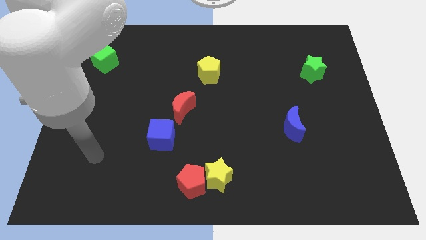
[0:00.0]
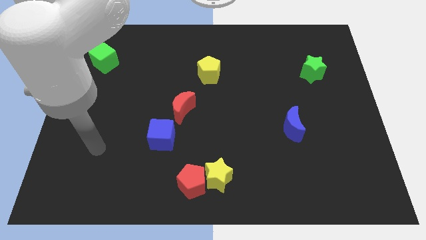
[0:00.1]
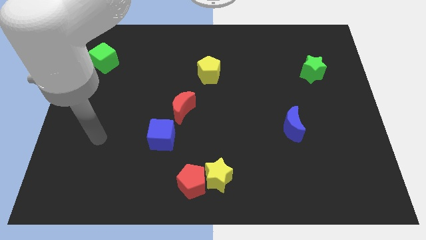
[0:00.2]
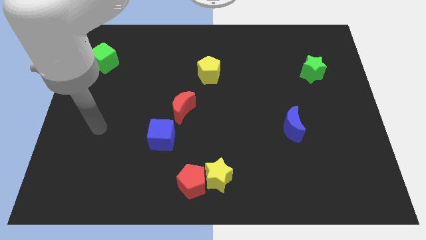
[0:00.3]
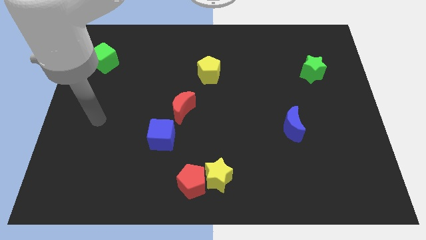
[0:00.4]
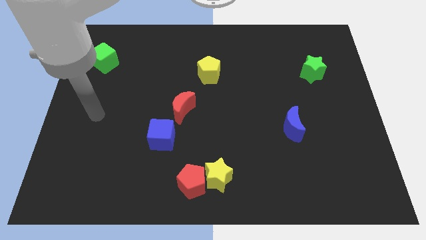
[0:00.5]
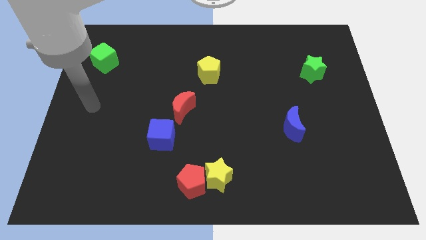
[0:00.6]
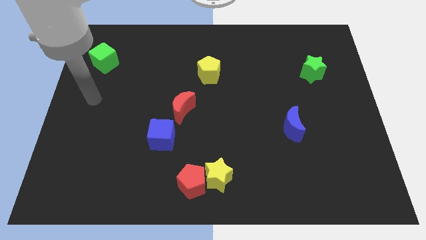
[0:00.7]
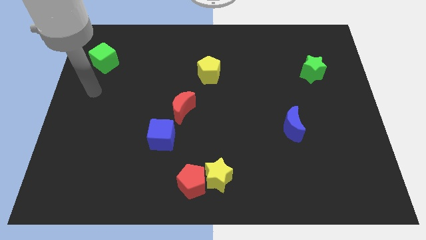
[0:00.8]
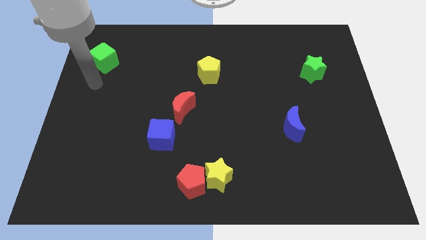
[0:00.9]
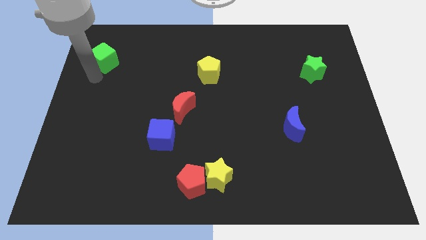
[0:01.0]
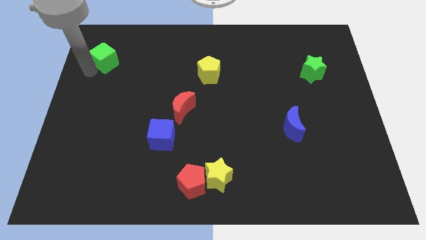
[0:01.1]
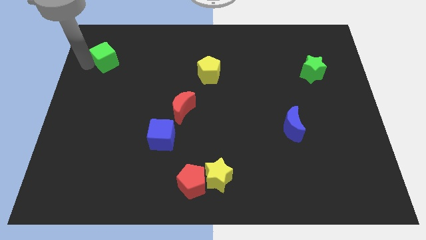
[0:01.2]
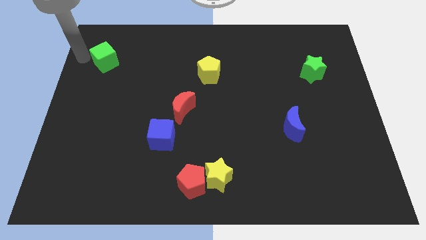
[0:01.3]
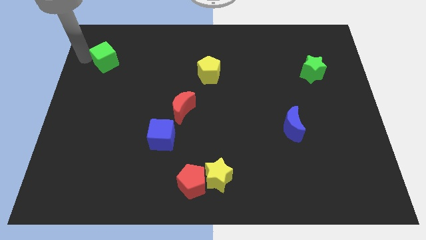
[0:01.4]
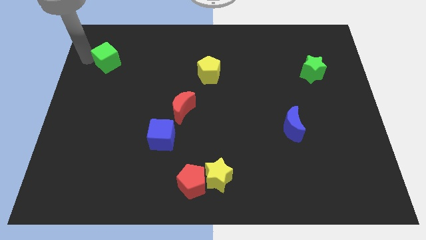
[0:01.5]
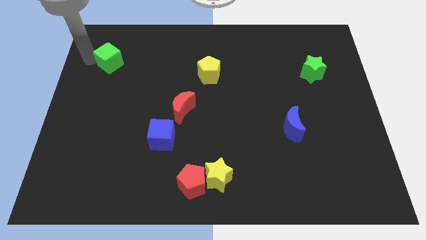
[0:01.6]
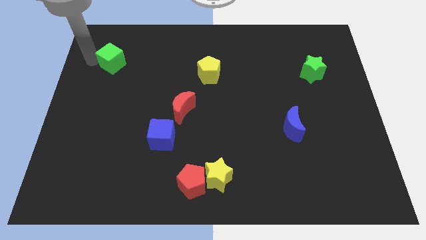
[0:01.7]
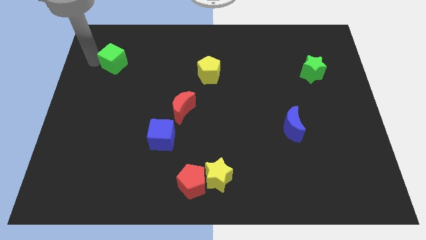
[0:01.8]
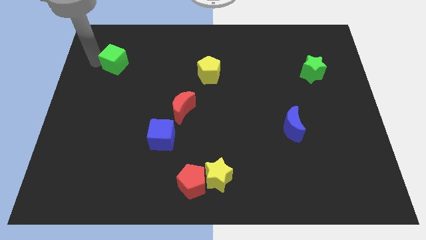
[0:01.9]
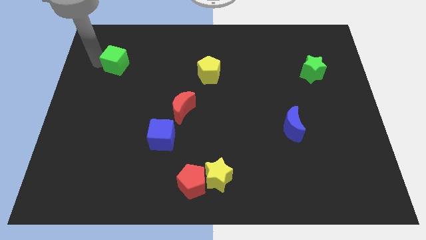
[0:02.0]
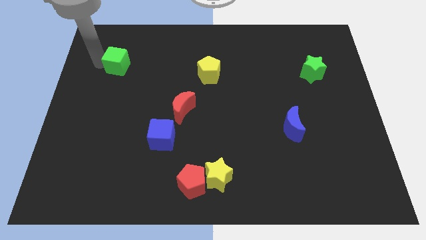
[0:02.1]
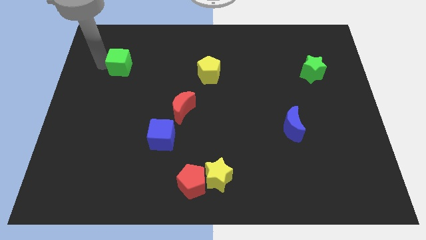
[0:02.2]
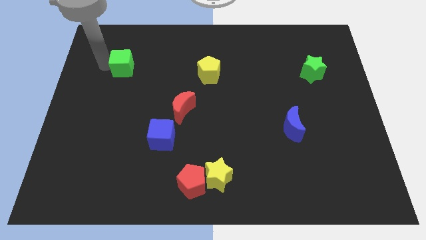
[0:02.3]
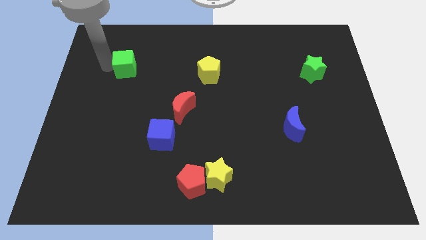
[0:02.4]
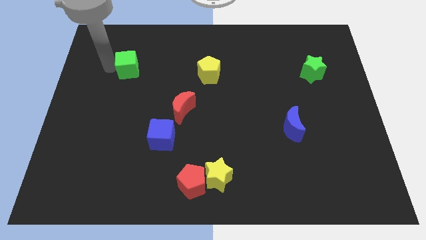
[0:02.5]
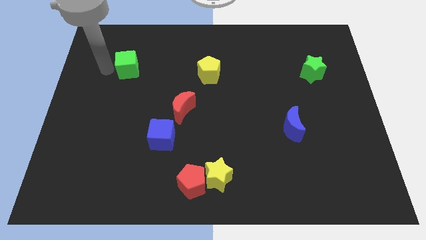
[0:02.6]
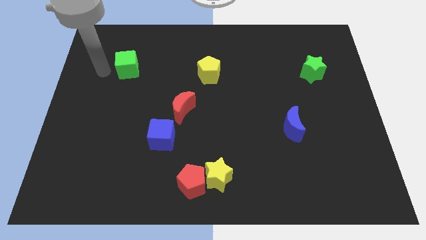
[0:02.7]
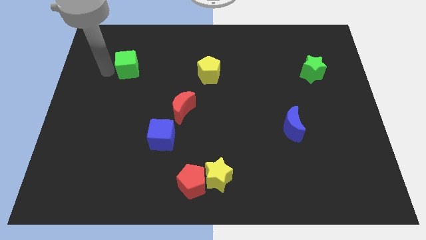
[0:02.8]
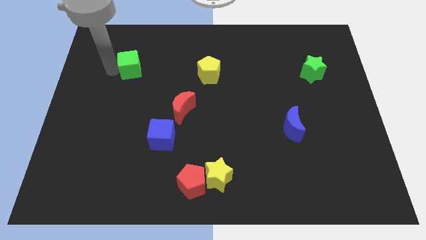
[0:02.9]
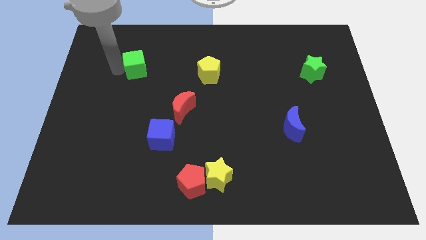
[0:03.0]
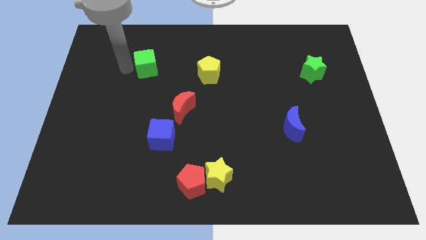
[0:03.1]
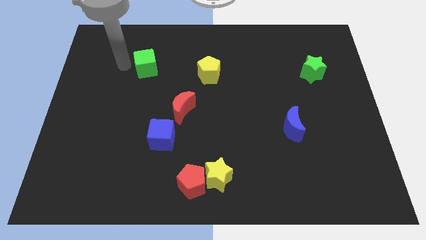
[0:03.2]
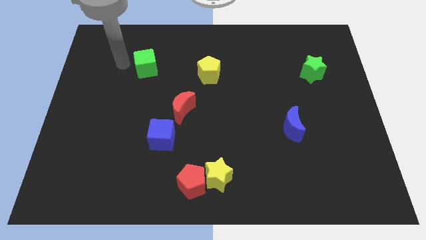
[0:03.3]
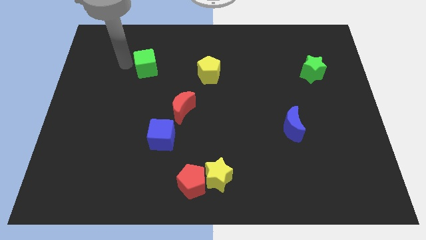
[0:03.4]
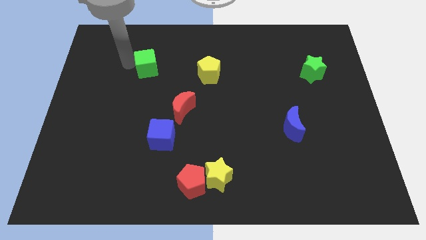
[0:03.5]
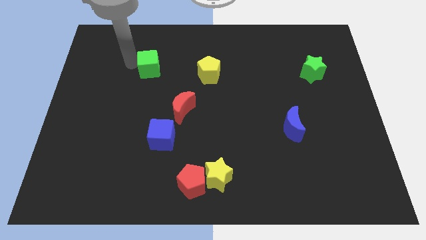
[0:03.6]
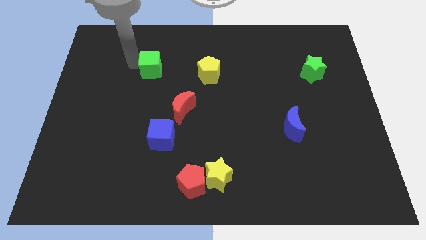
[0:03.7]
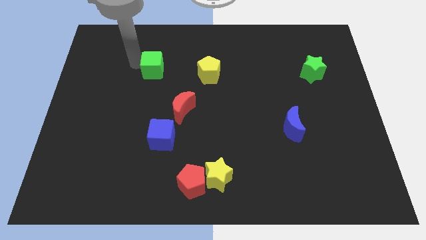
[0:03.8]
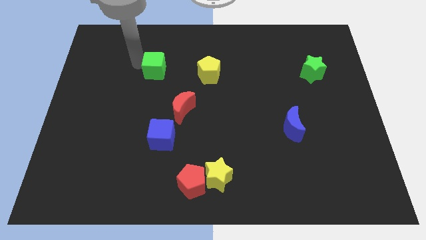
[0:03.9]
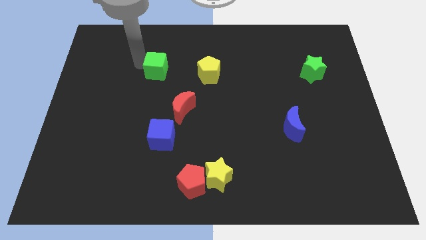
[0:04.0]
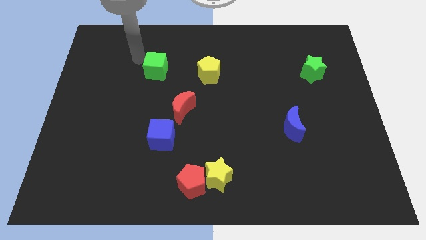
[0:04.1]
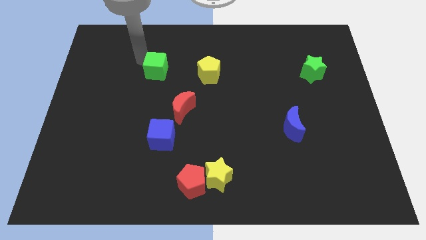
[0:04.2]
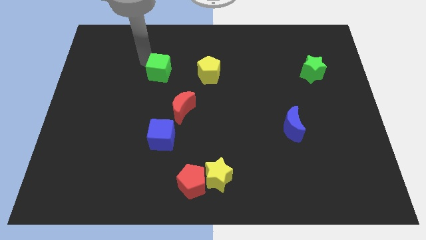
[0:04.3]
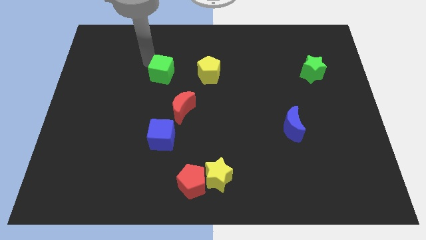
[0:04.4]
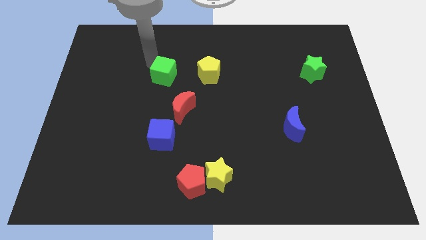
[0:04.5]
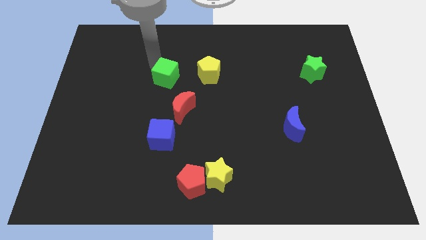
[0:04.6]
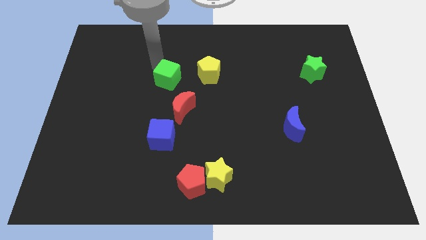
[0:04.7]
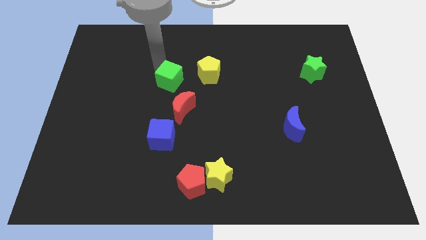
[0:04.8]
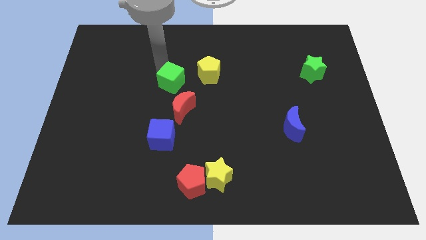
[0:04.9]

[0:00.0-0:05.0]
slide the green cube diagonally down and to the left of the yellow pentagon

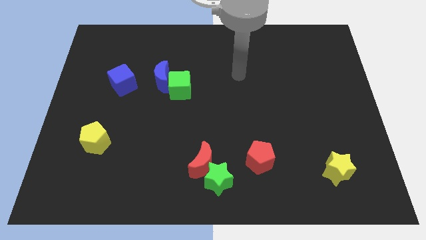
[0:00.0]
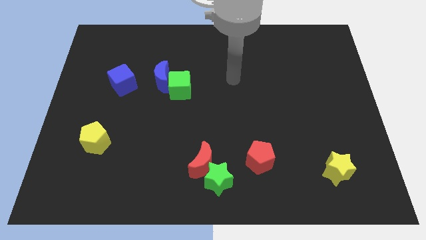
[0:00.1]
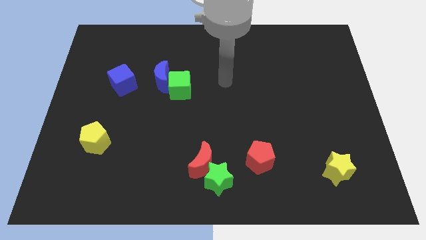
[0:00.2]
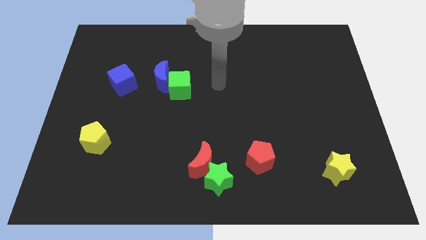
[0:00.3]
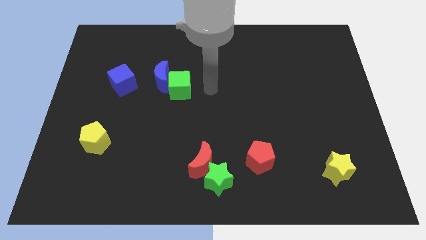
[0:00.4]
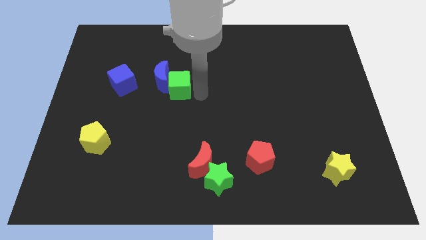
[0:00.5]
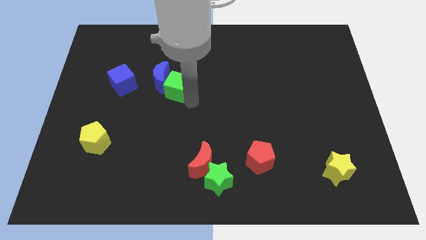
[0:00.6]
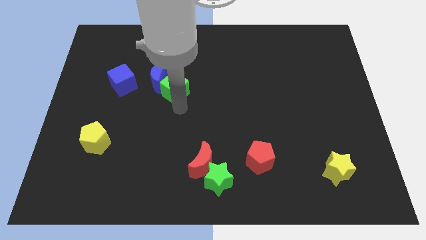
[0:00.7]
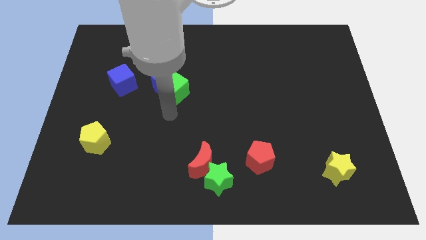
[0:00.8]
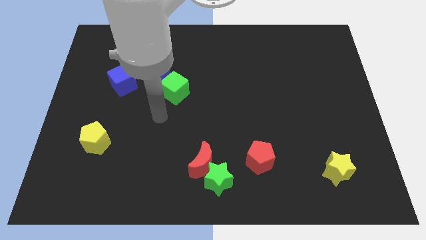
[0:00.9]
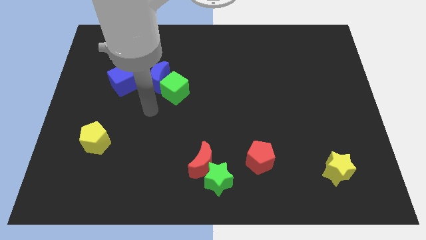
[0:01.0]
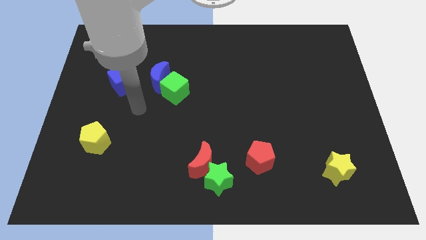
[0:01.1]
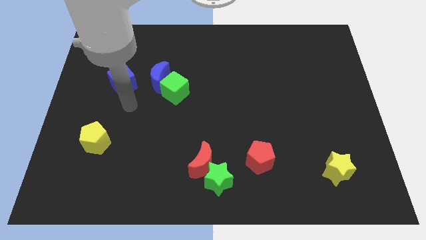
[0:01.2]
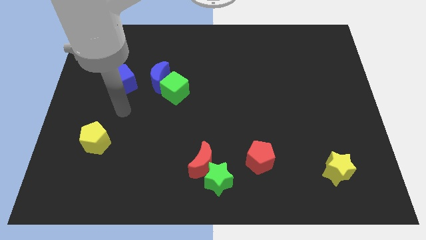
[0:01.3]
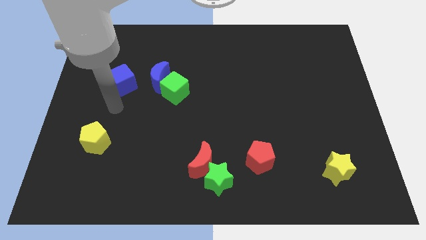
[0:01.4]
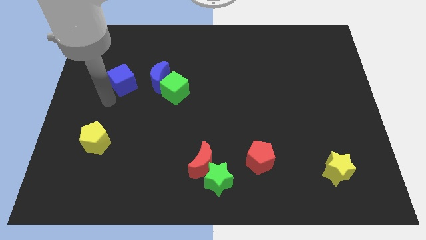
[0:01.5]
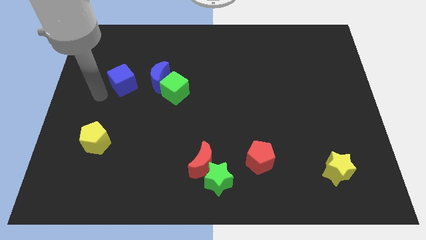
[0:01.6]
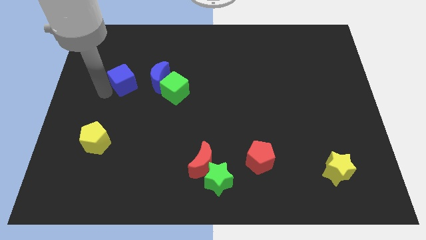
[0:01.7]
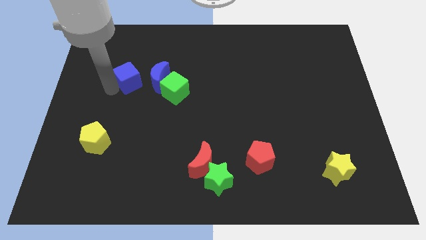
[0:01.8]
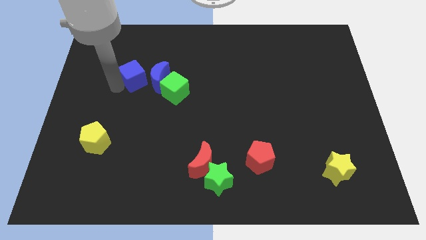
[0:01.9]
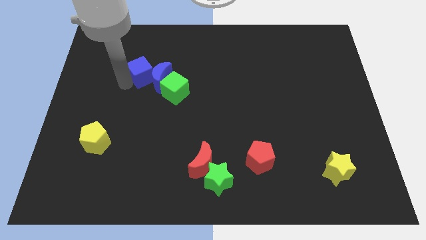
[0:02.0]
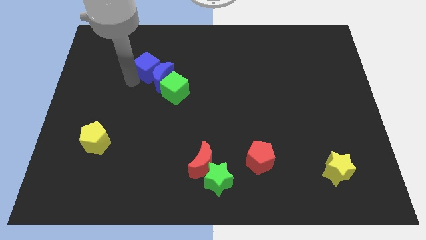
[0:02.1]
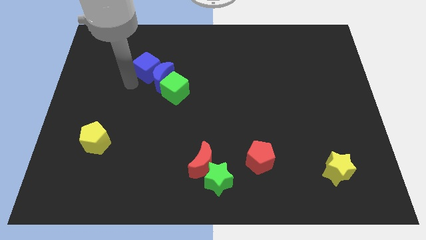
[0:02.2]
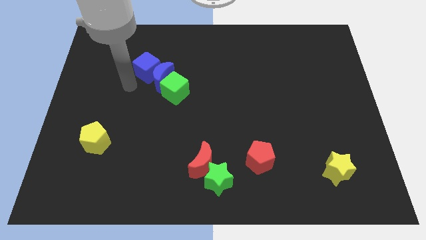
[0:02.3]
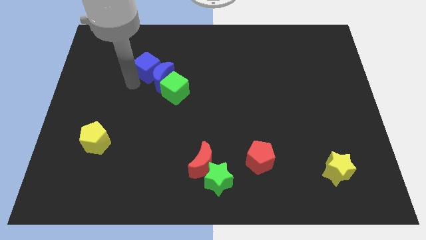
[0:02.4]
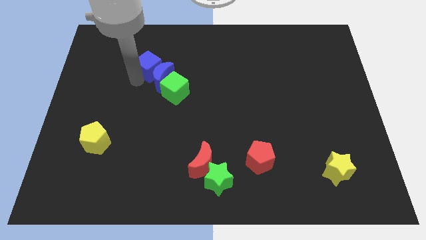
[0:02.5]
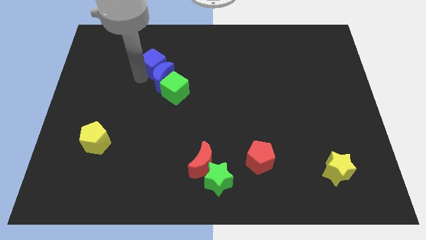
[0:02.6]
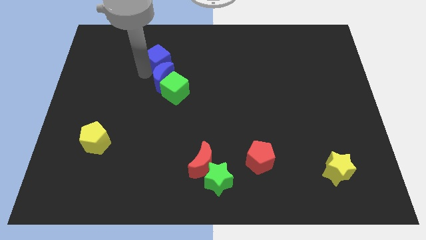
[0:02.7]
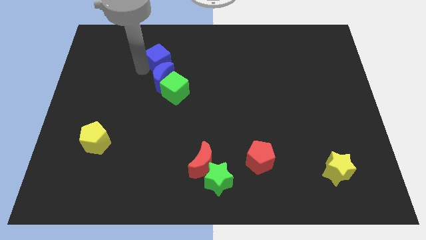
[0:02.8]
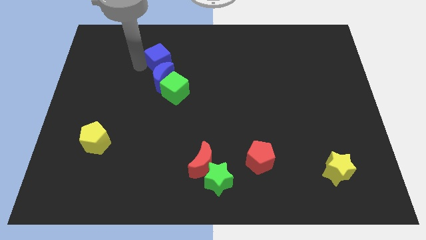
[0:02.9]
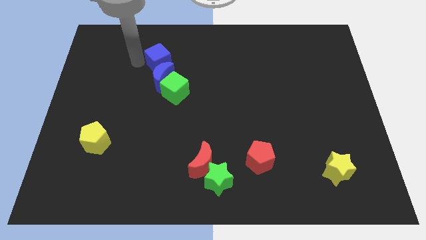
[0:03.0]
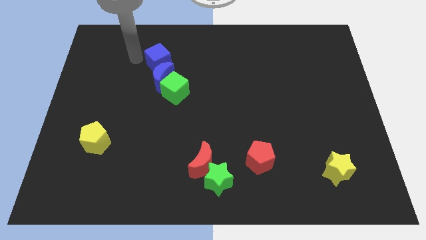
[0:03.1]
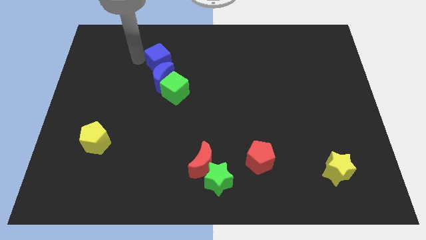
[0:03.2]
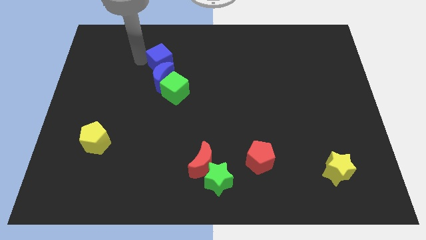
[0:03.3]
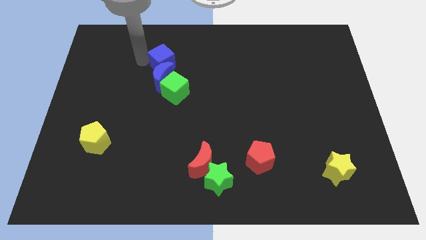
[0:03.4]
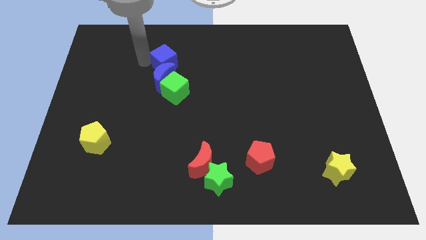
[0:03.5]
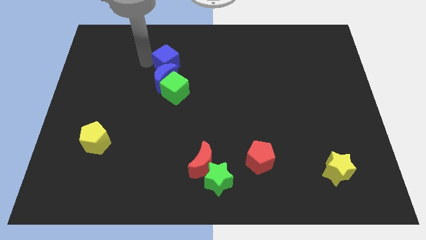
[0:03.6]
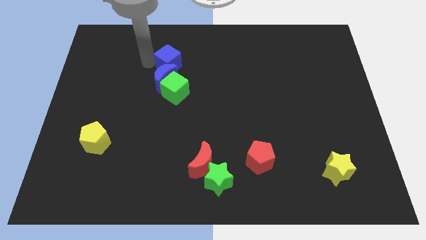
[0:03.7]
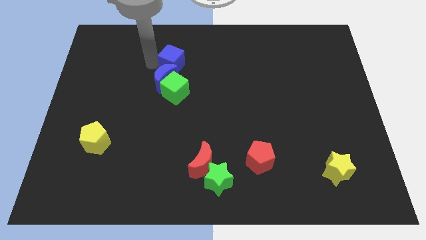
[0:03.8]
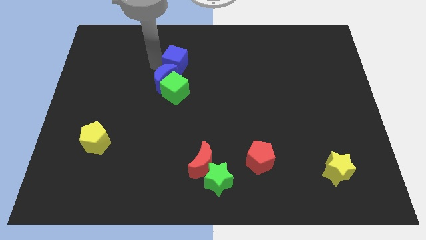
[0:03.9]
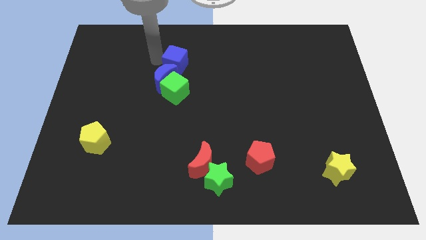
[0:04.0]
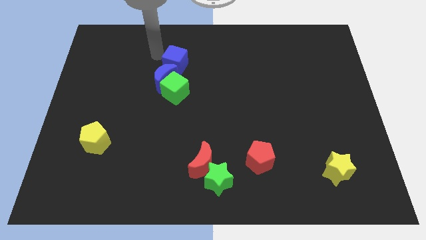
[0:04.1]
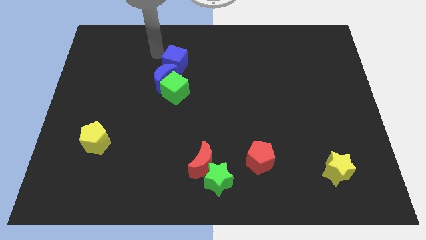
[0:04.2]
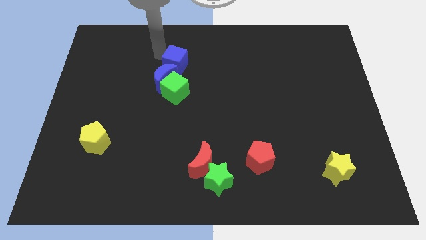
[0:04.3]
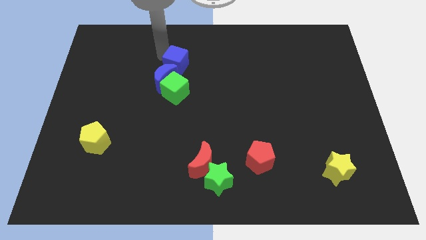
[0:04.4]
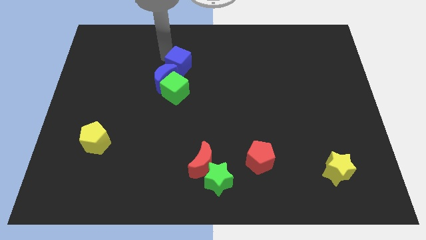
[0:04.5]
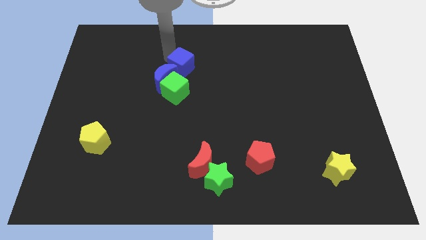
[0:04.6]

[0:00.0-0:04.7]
slide the blue cube to the right of the blue moon
